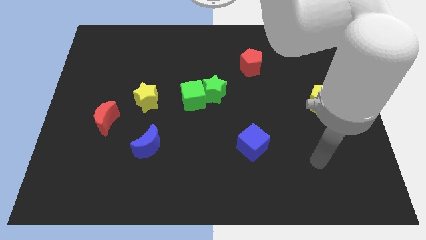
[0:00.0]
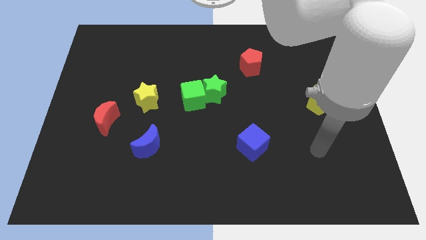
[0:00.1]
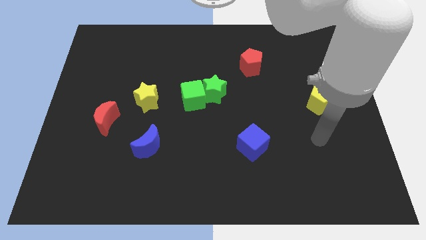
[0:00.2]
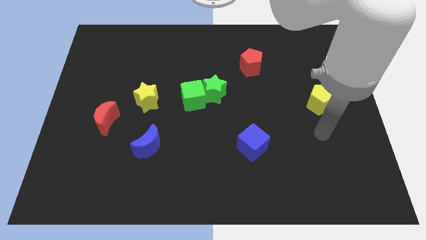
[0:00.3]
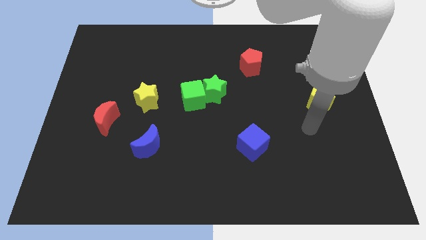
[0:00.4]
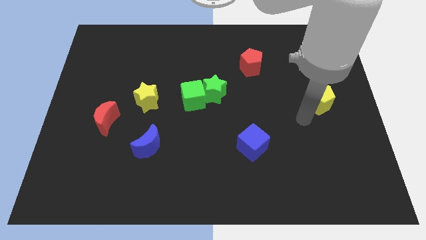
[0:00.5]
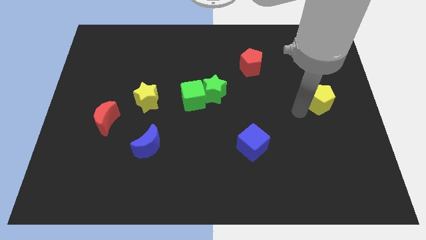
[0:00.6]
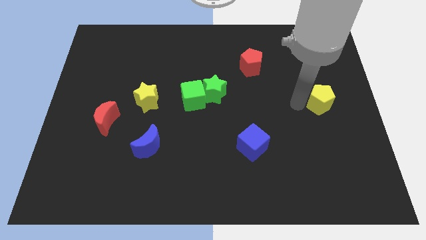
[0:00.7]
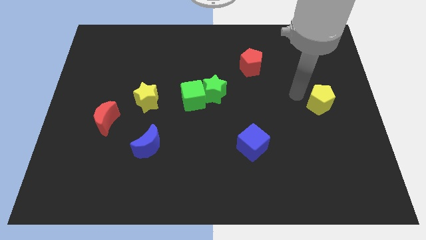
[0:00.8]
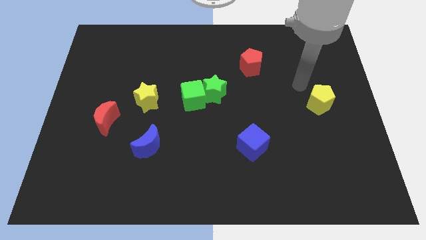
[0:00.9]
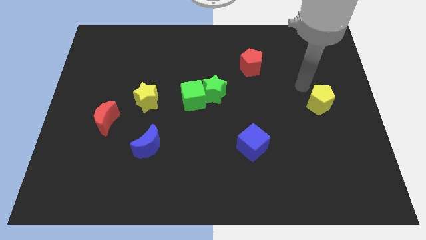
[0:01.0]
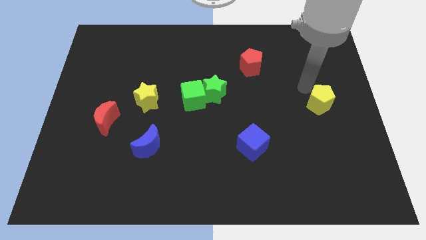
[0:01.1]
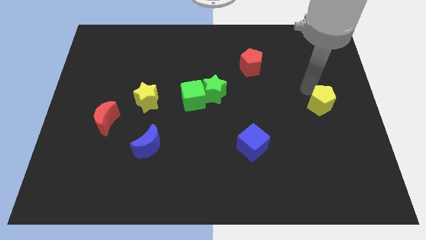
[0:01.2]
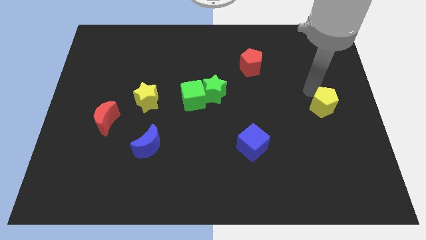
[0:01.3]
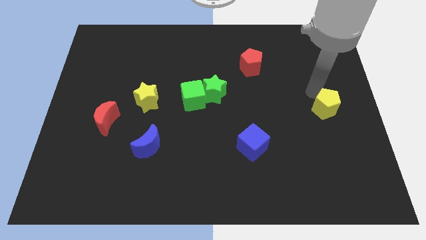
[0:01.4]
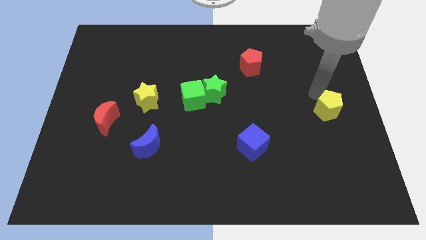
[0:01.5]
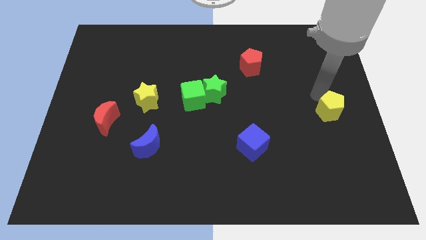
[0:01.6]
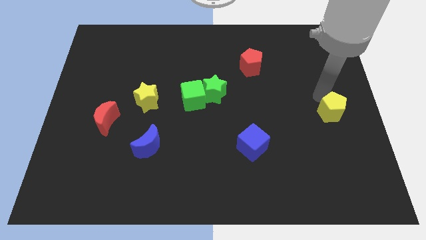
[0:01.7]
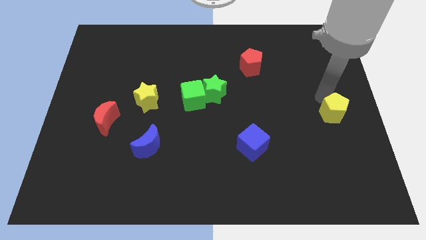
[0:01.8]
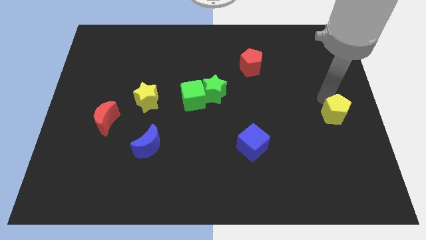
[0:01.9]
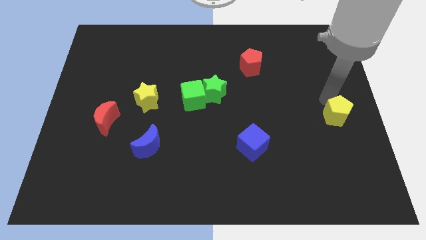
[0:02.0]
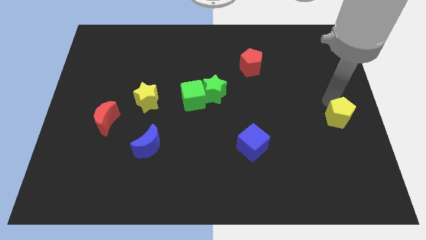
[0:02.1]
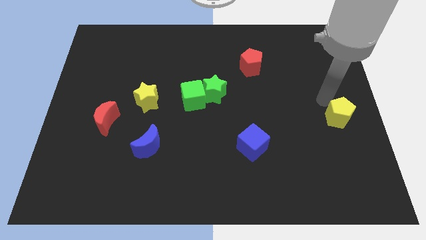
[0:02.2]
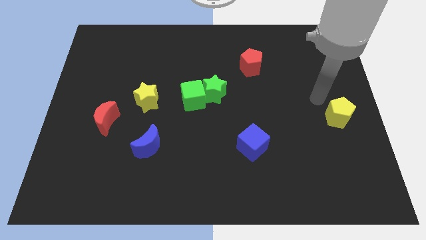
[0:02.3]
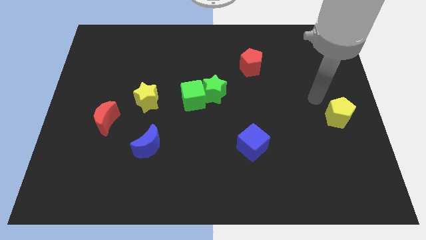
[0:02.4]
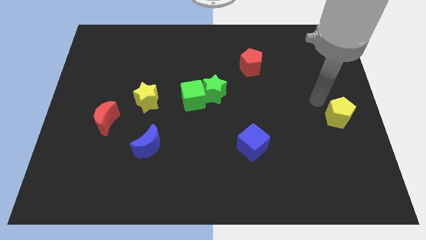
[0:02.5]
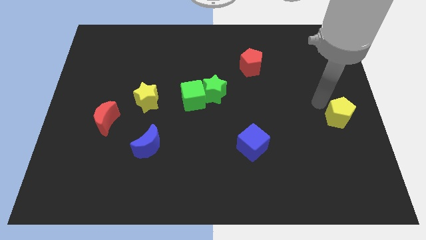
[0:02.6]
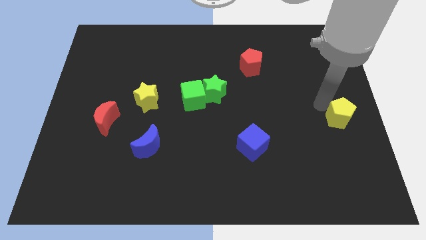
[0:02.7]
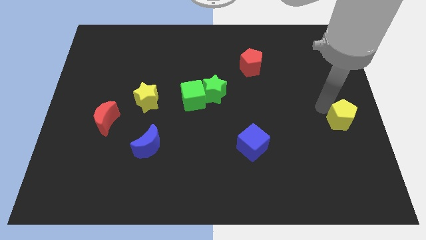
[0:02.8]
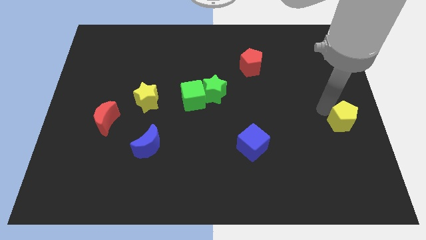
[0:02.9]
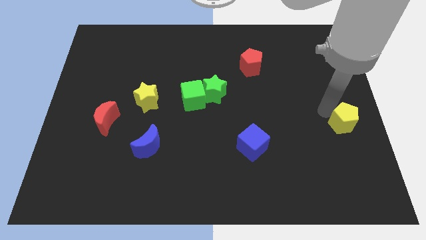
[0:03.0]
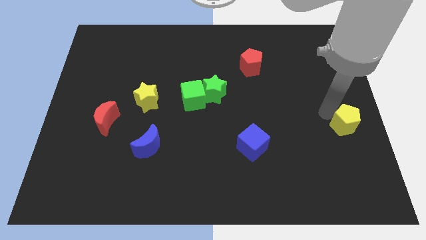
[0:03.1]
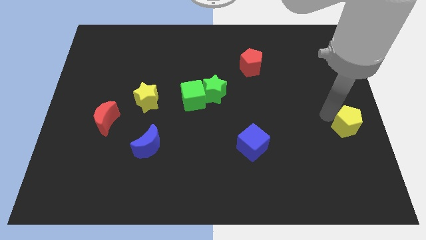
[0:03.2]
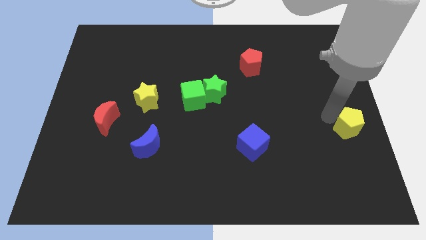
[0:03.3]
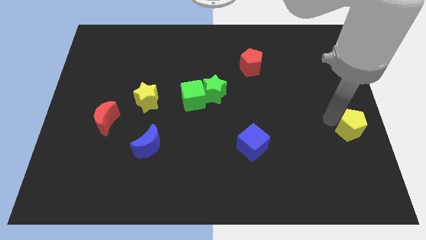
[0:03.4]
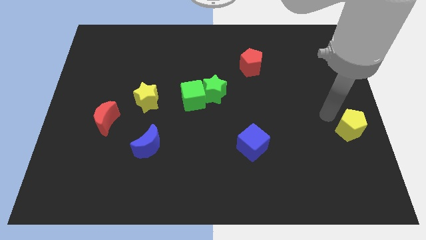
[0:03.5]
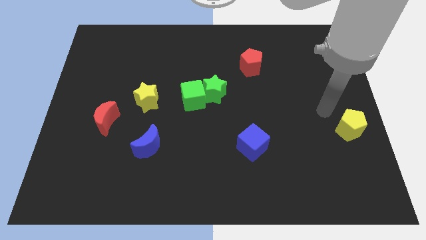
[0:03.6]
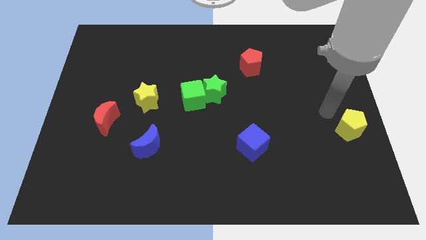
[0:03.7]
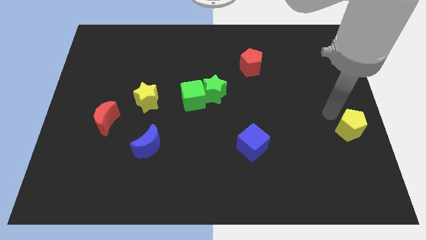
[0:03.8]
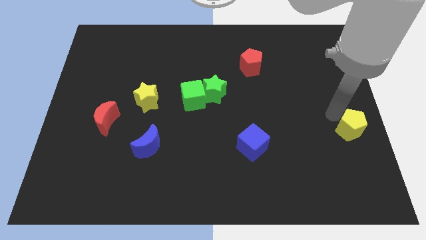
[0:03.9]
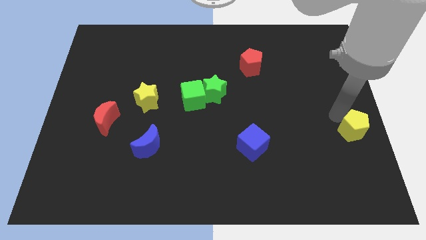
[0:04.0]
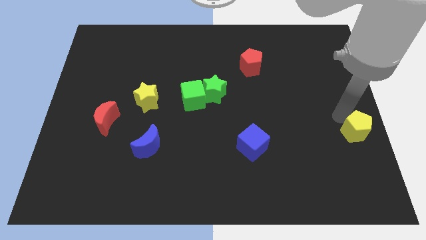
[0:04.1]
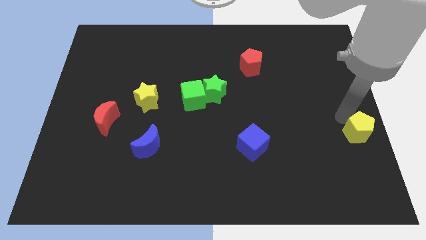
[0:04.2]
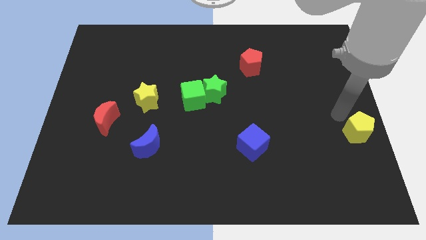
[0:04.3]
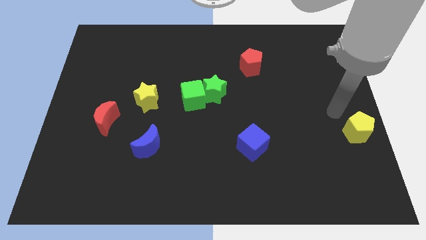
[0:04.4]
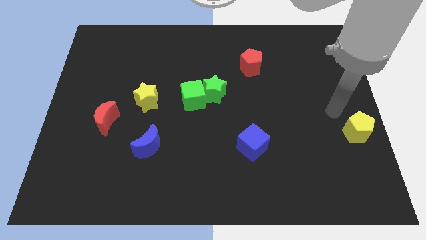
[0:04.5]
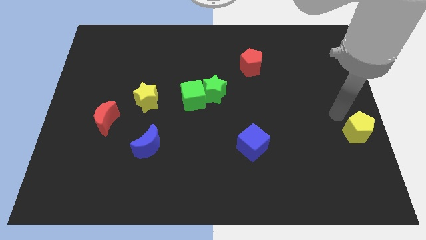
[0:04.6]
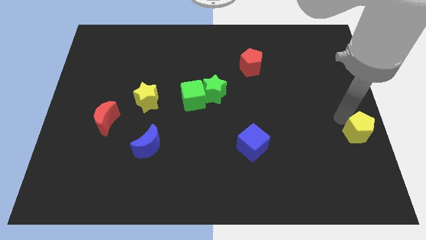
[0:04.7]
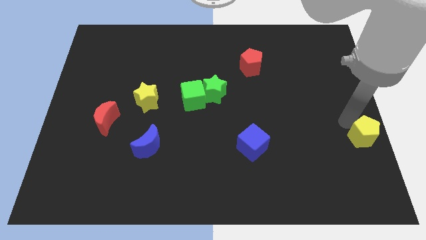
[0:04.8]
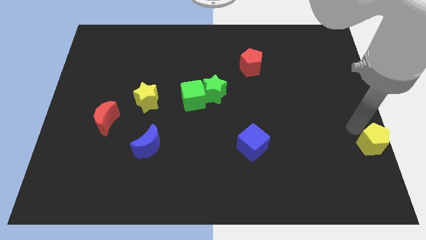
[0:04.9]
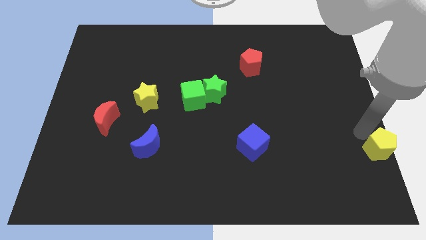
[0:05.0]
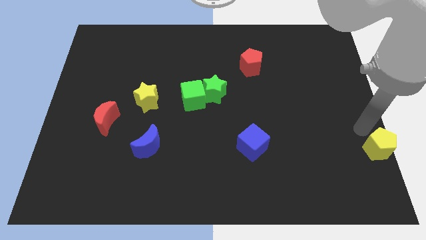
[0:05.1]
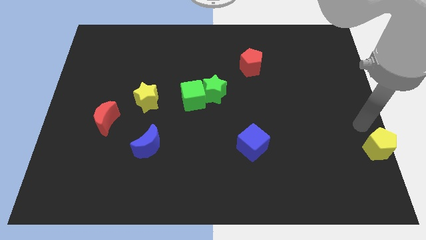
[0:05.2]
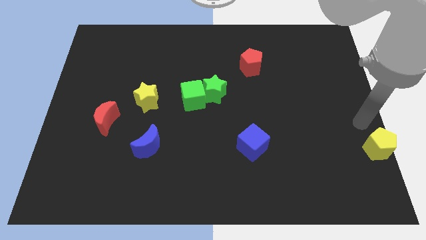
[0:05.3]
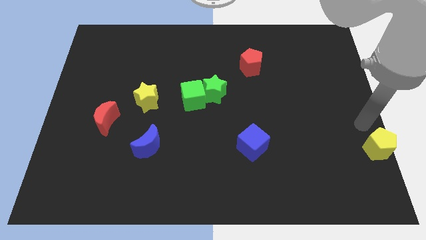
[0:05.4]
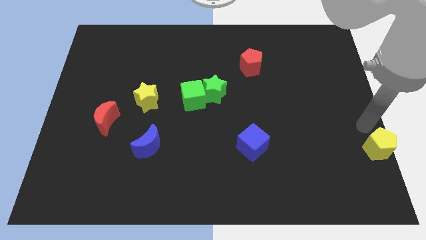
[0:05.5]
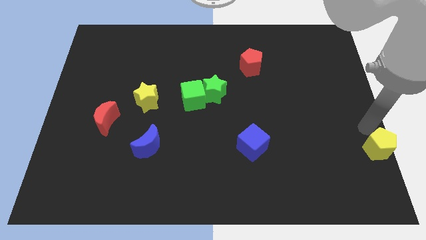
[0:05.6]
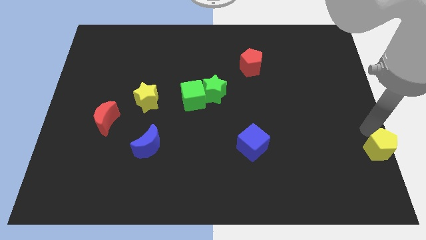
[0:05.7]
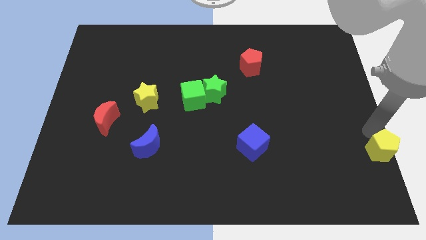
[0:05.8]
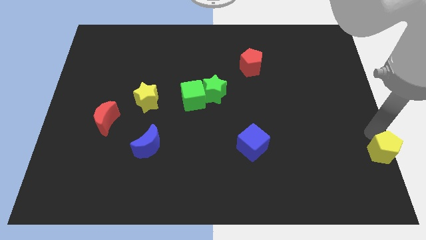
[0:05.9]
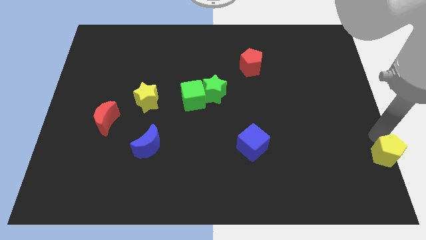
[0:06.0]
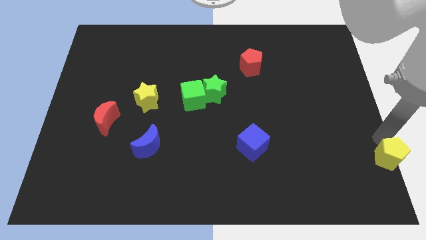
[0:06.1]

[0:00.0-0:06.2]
put the yellow pentagon to the bottom right
